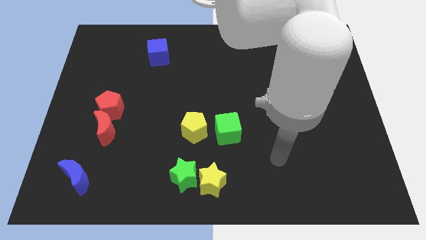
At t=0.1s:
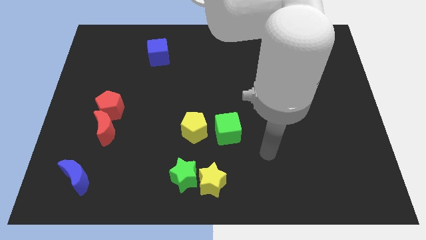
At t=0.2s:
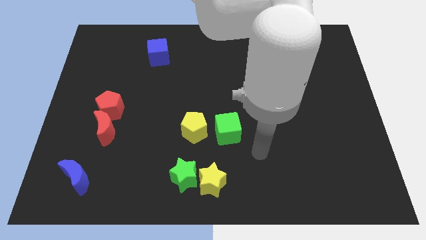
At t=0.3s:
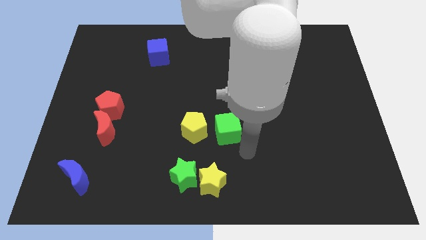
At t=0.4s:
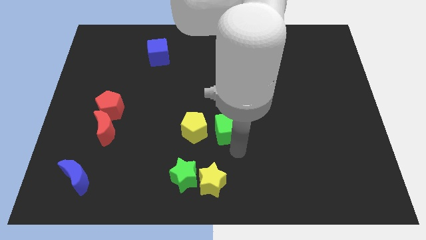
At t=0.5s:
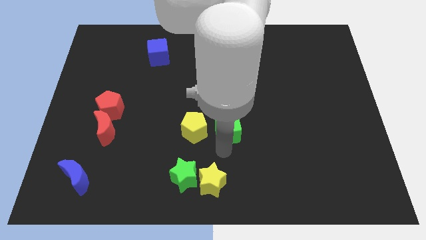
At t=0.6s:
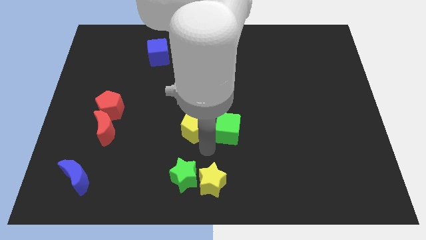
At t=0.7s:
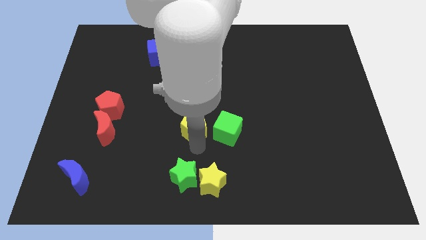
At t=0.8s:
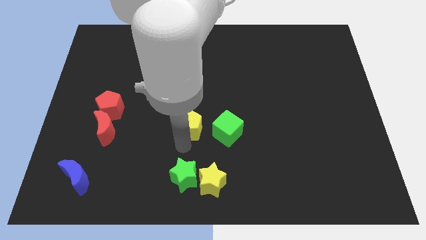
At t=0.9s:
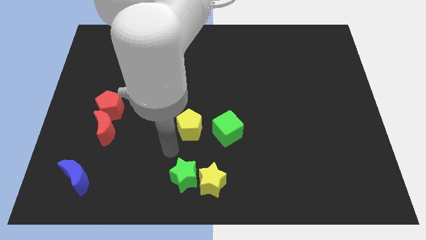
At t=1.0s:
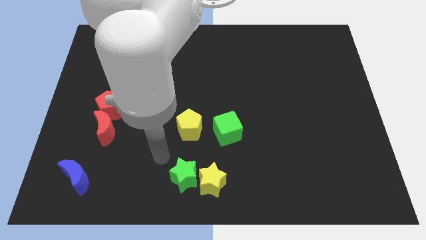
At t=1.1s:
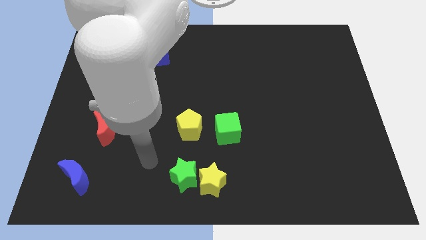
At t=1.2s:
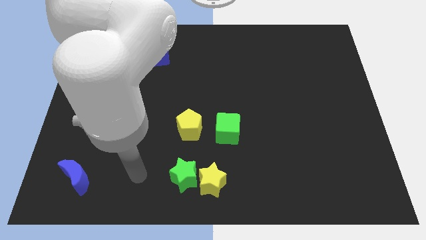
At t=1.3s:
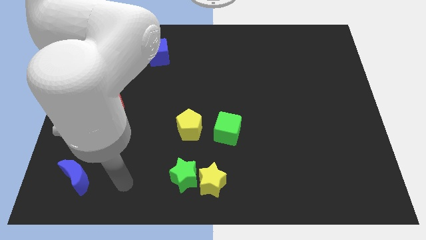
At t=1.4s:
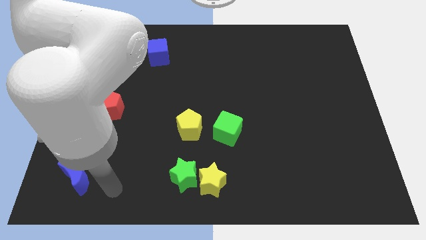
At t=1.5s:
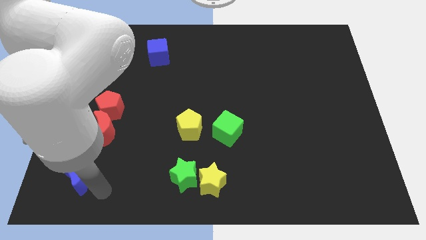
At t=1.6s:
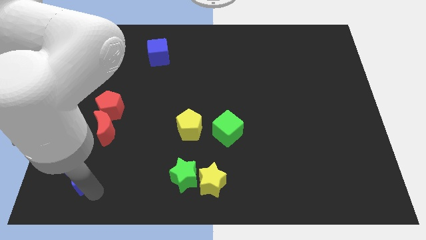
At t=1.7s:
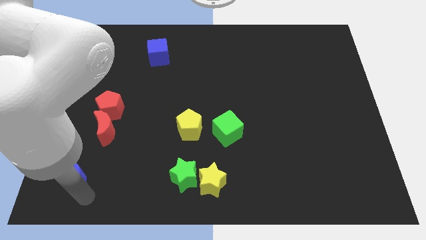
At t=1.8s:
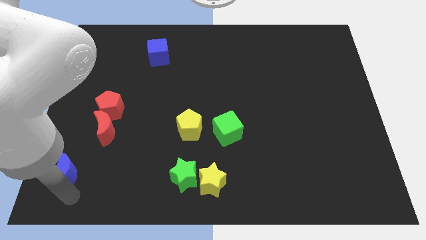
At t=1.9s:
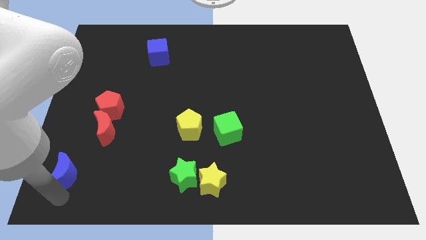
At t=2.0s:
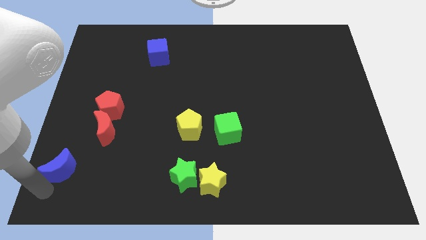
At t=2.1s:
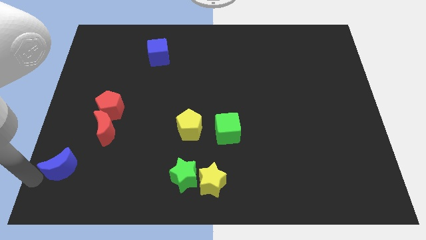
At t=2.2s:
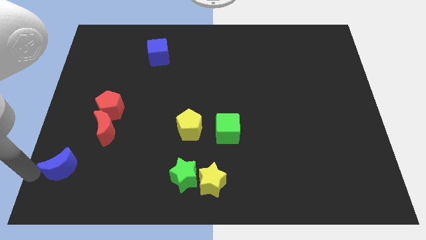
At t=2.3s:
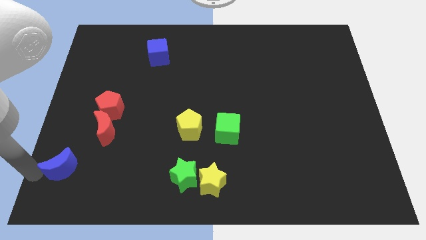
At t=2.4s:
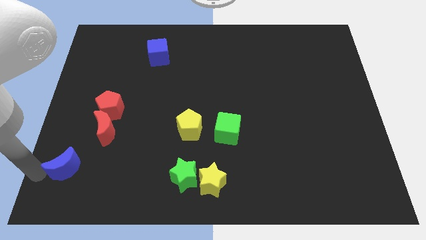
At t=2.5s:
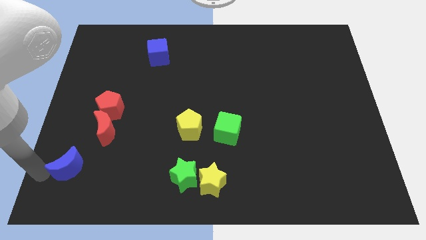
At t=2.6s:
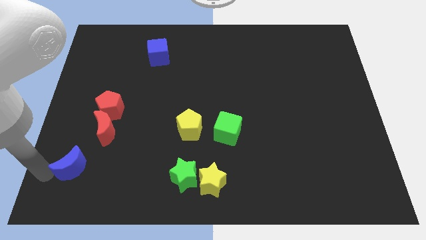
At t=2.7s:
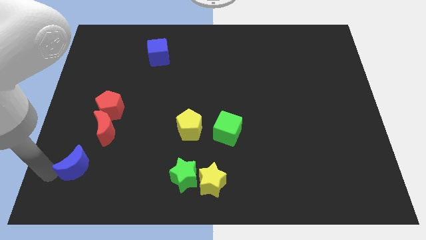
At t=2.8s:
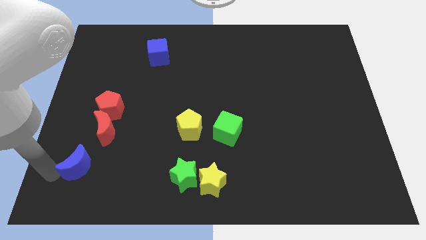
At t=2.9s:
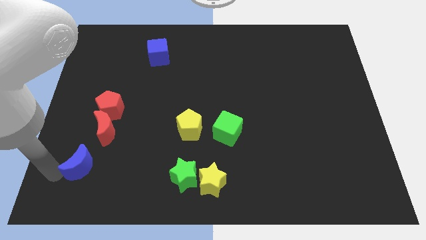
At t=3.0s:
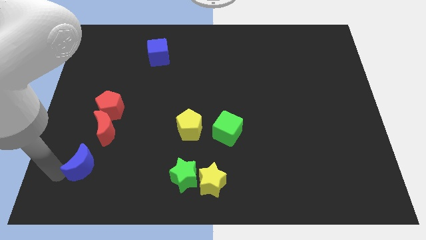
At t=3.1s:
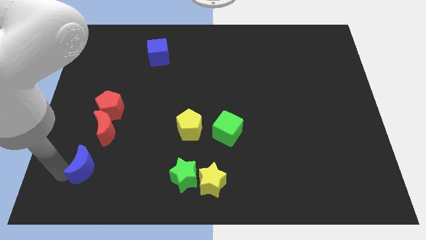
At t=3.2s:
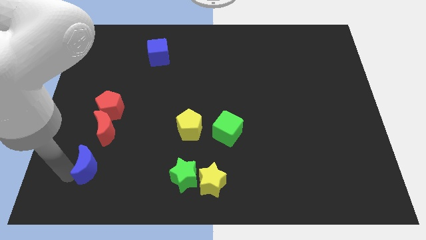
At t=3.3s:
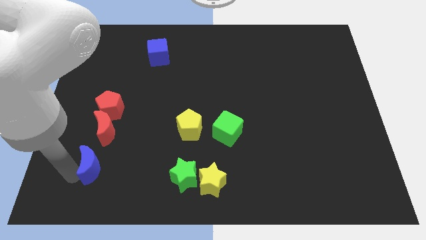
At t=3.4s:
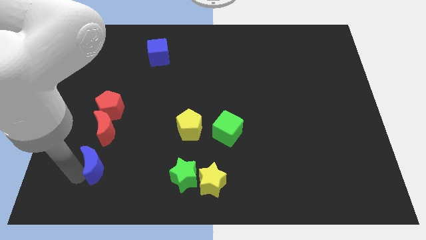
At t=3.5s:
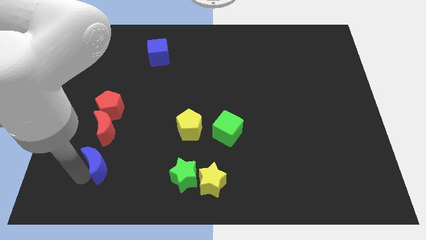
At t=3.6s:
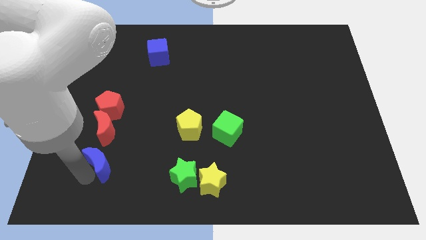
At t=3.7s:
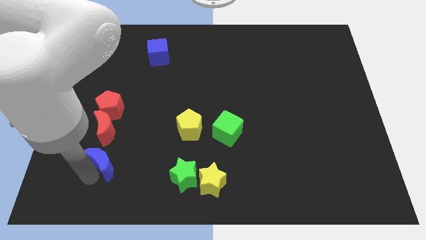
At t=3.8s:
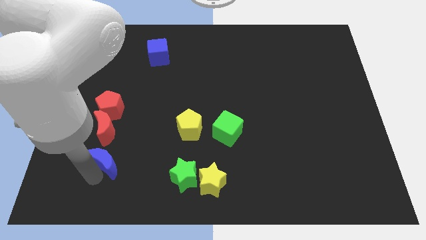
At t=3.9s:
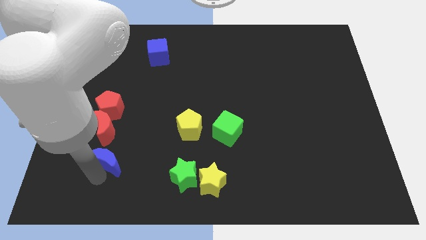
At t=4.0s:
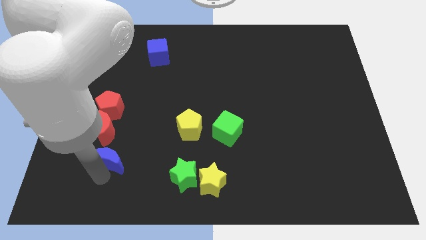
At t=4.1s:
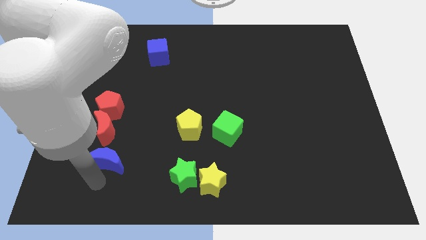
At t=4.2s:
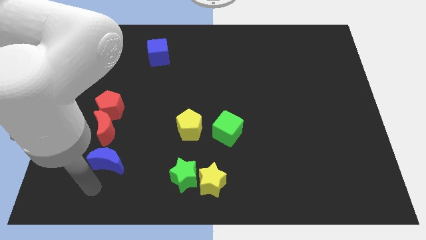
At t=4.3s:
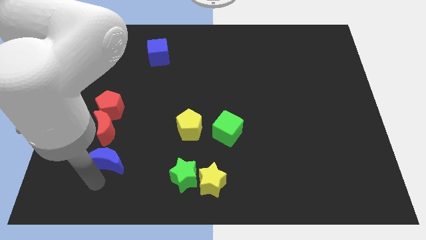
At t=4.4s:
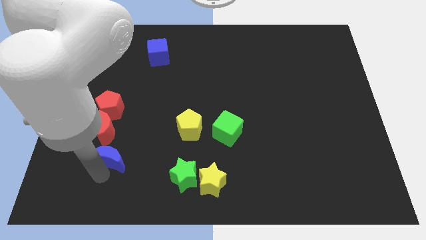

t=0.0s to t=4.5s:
slightly push the blue moon diagonally up and to the right

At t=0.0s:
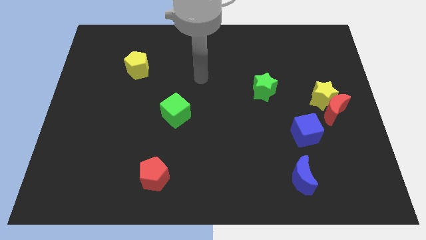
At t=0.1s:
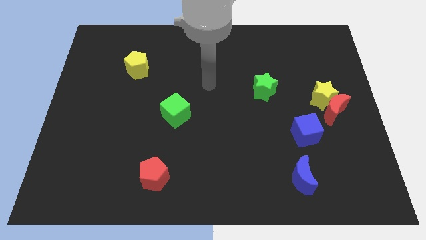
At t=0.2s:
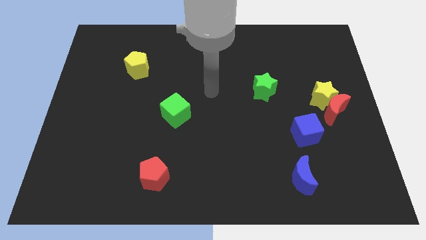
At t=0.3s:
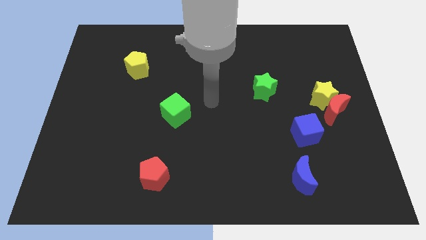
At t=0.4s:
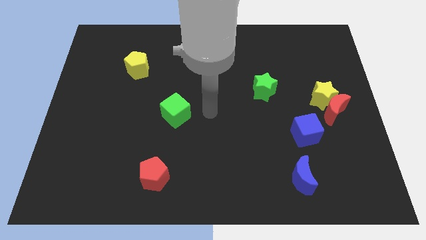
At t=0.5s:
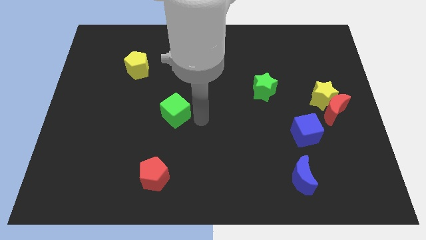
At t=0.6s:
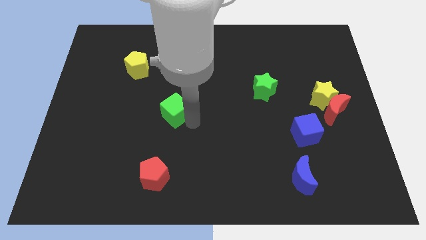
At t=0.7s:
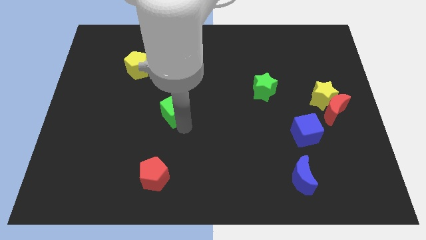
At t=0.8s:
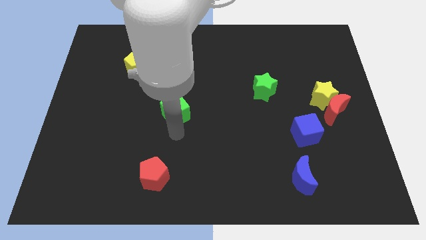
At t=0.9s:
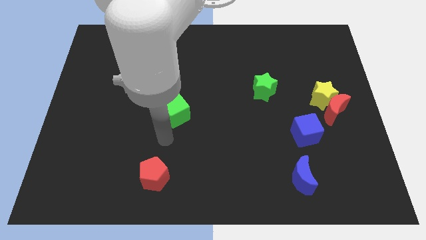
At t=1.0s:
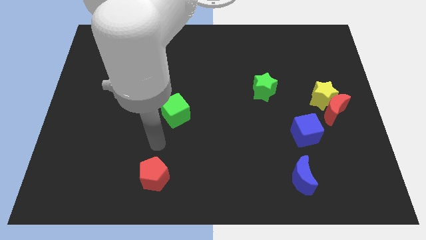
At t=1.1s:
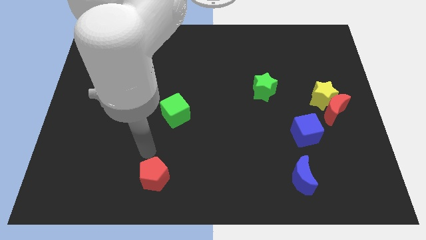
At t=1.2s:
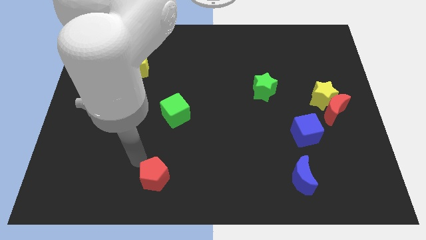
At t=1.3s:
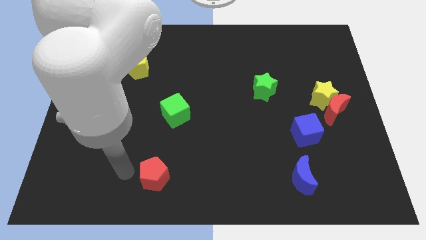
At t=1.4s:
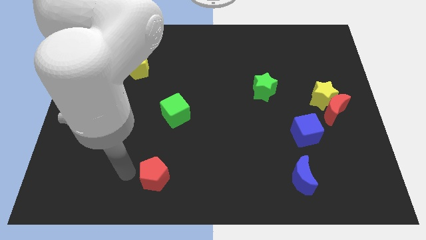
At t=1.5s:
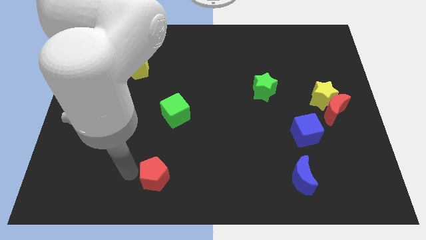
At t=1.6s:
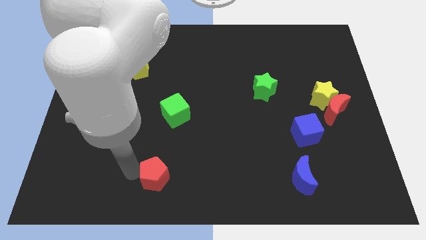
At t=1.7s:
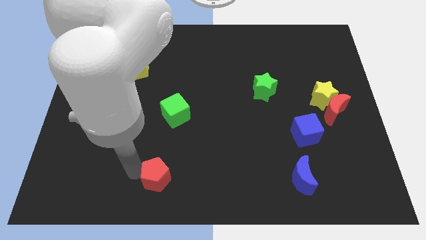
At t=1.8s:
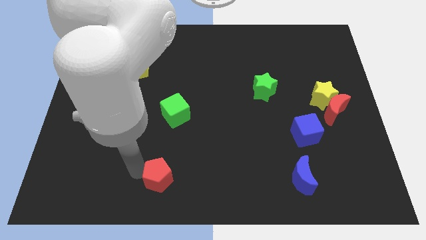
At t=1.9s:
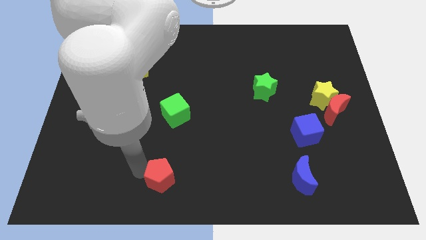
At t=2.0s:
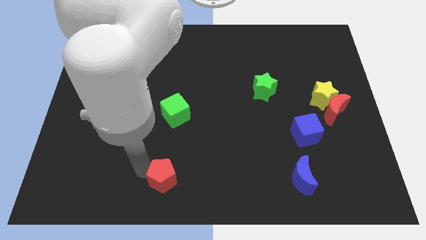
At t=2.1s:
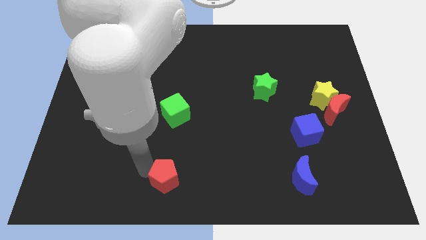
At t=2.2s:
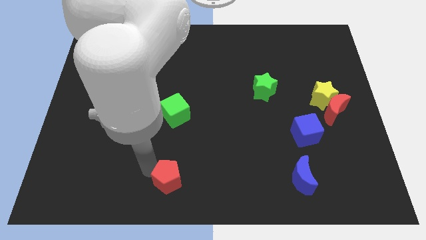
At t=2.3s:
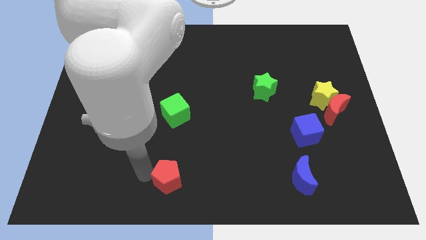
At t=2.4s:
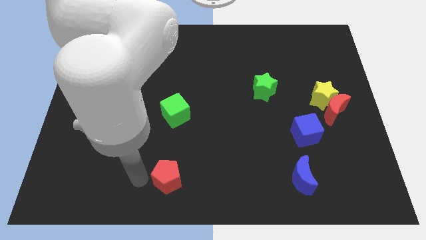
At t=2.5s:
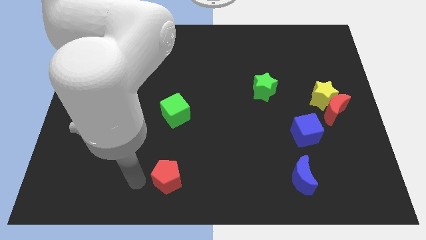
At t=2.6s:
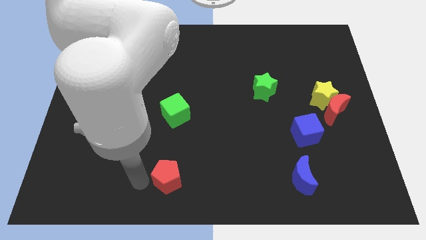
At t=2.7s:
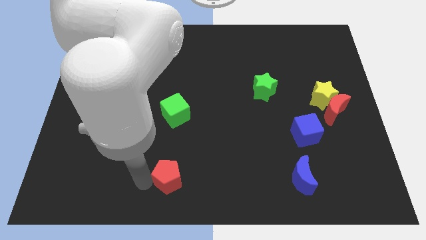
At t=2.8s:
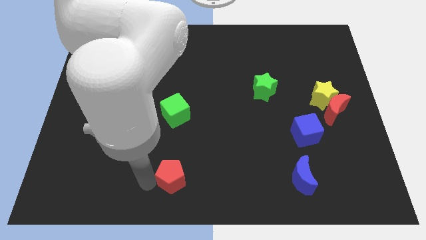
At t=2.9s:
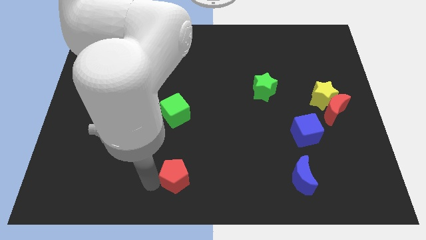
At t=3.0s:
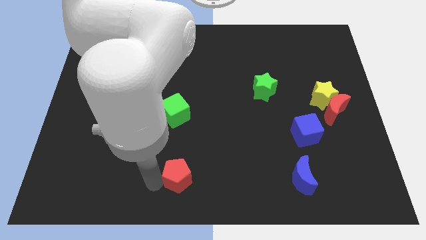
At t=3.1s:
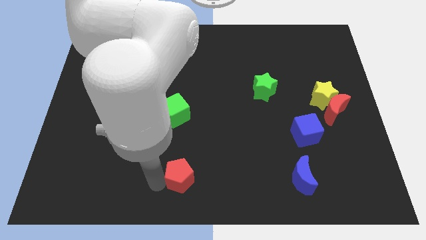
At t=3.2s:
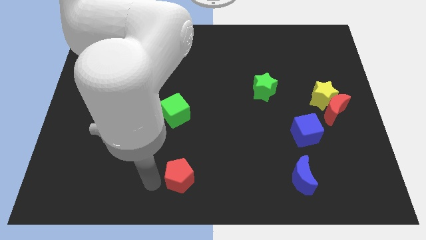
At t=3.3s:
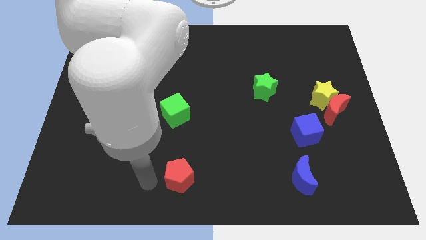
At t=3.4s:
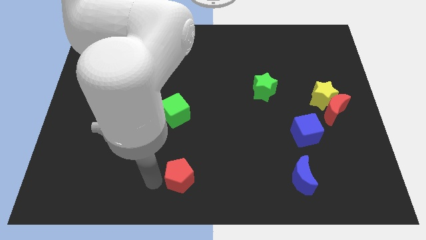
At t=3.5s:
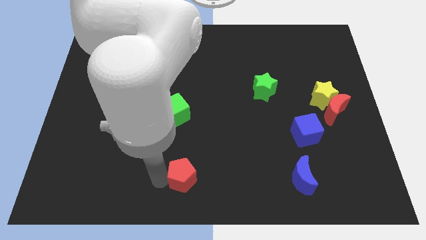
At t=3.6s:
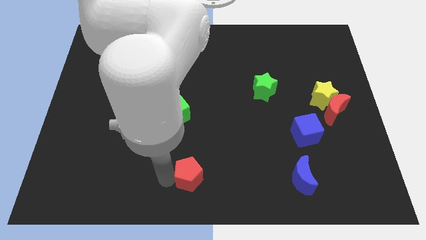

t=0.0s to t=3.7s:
slide the red pentagon a little right
